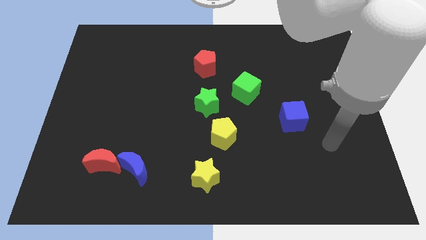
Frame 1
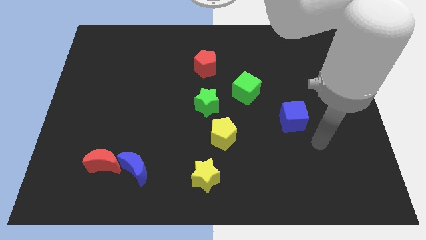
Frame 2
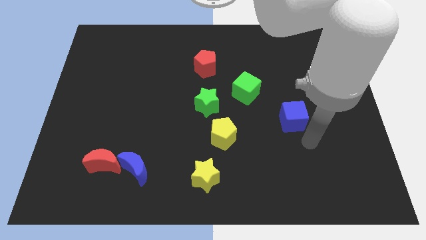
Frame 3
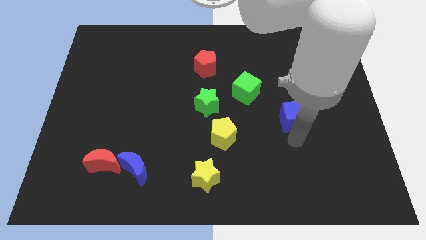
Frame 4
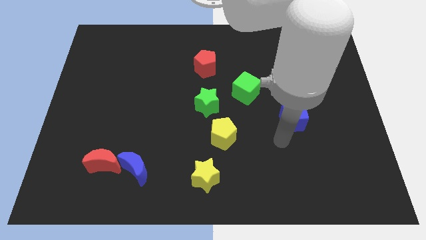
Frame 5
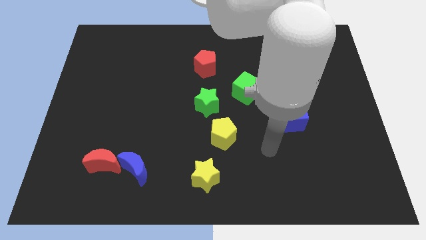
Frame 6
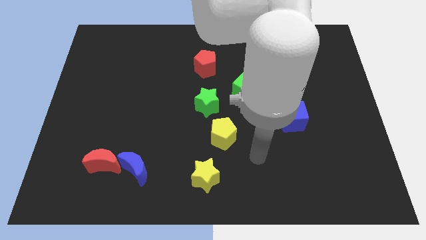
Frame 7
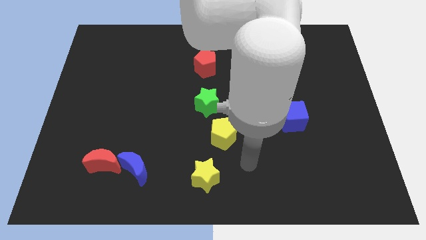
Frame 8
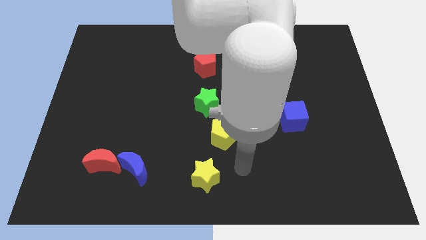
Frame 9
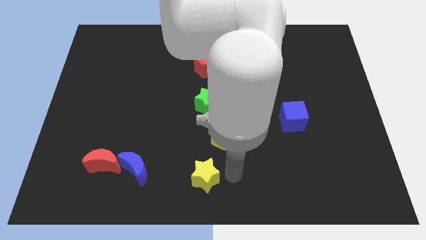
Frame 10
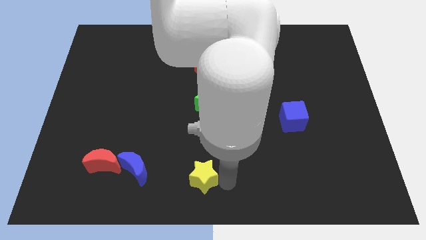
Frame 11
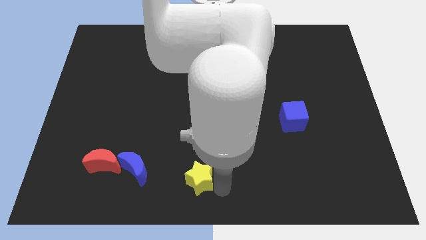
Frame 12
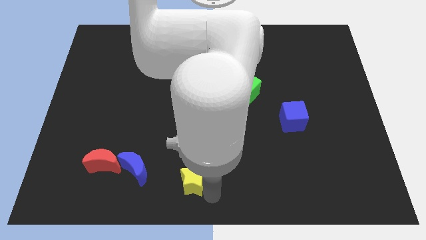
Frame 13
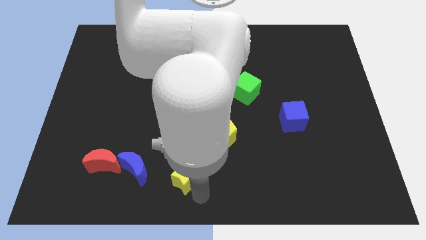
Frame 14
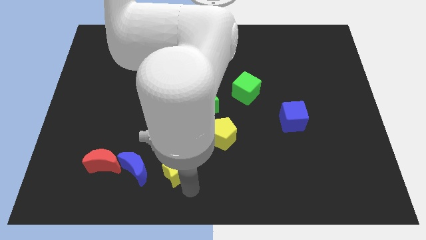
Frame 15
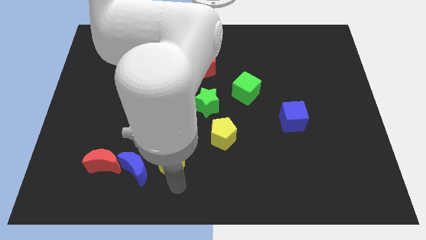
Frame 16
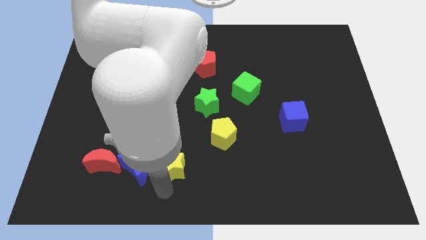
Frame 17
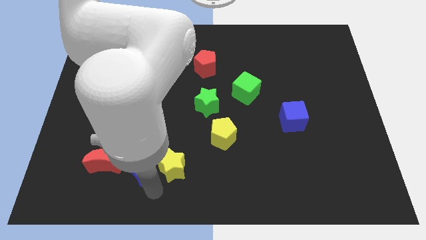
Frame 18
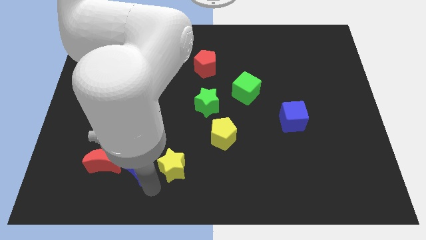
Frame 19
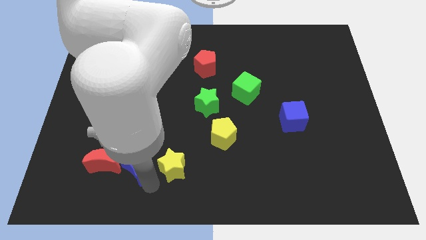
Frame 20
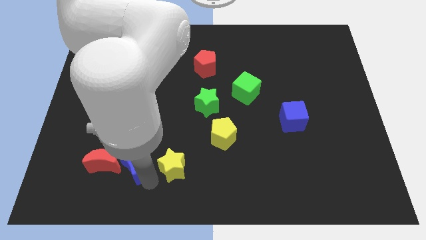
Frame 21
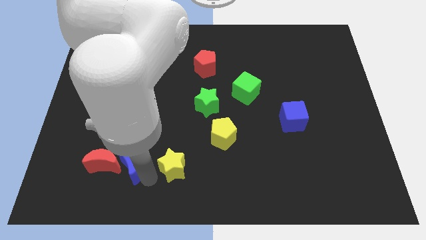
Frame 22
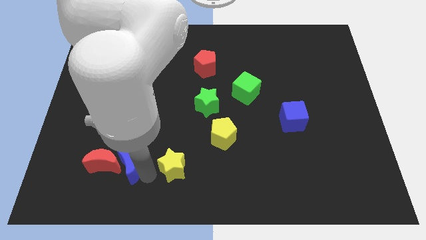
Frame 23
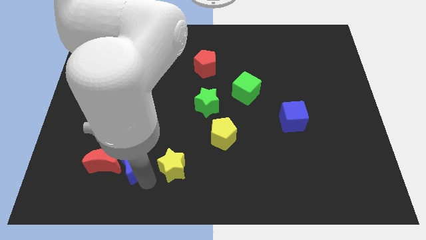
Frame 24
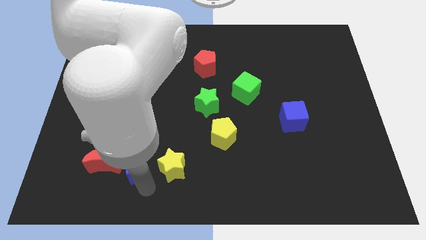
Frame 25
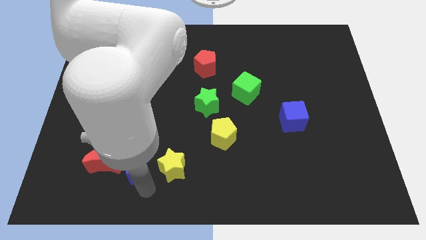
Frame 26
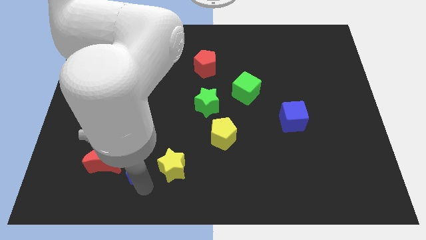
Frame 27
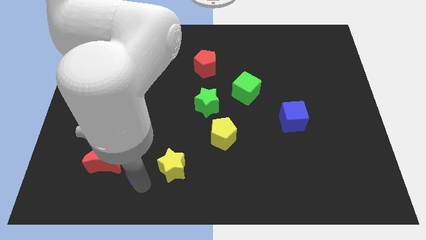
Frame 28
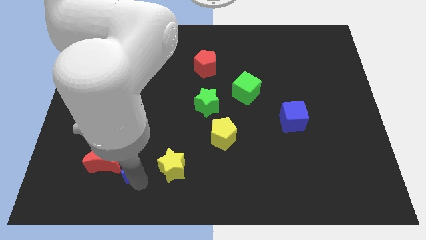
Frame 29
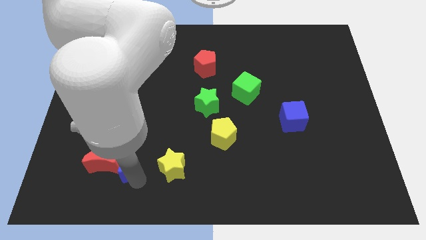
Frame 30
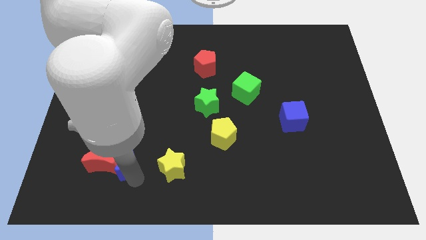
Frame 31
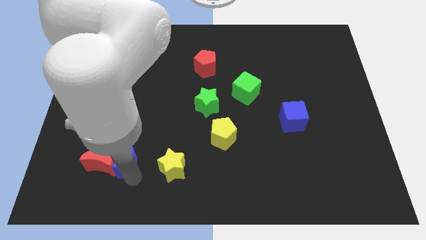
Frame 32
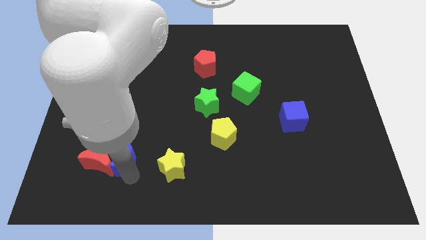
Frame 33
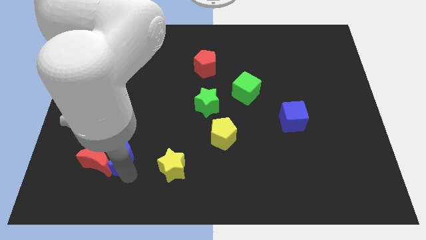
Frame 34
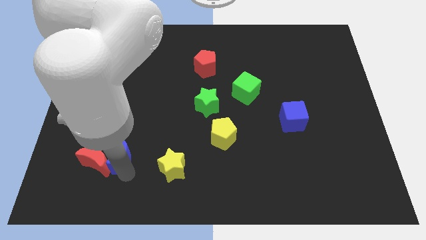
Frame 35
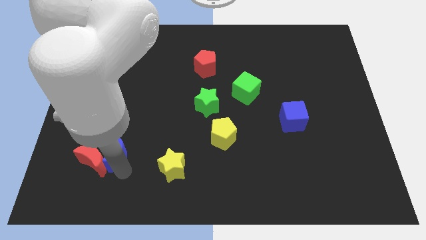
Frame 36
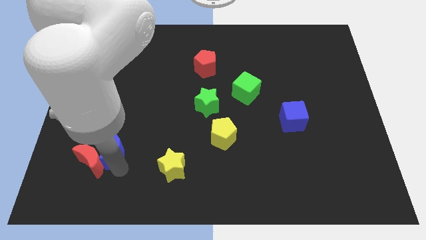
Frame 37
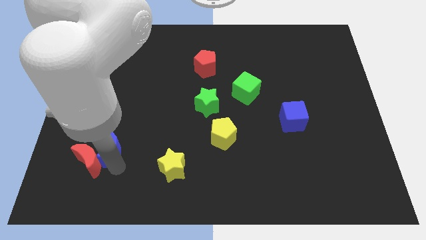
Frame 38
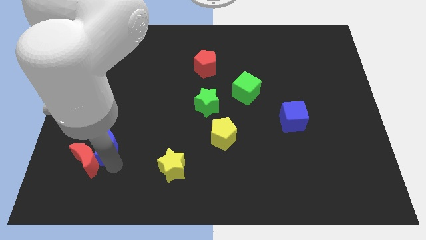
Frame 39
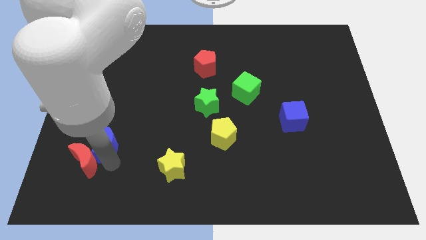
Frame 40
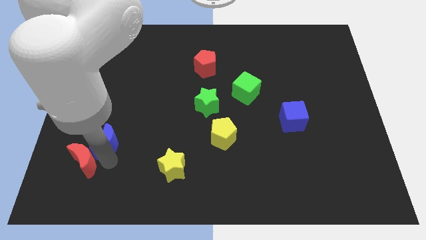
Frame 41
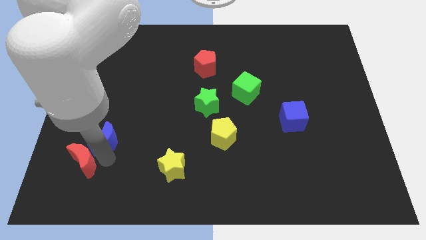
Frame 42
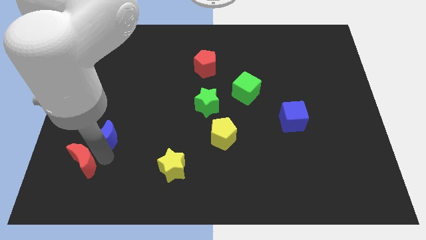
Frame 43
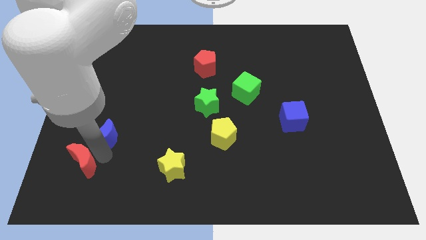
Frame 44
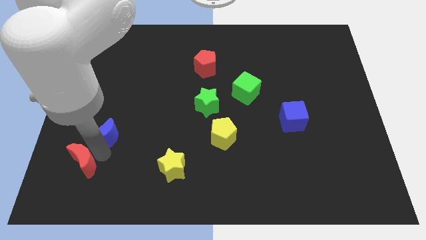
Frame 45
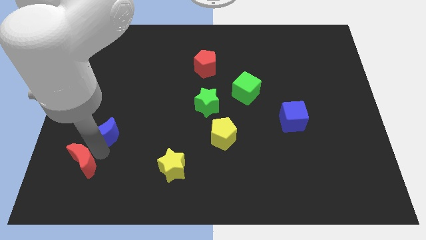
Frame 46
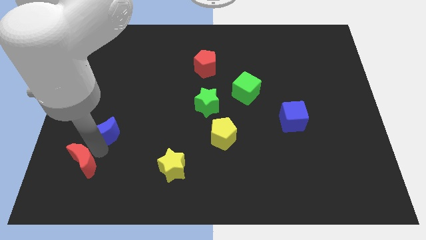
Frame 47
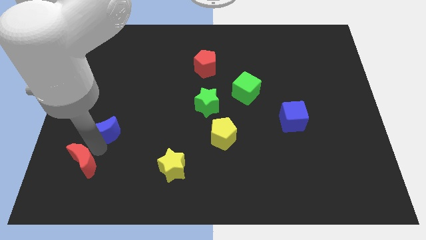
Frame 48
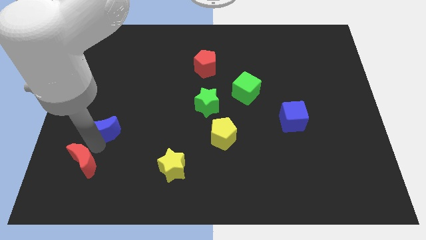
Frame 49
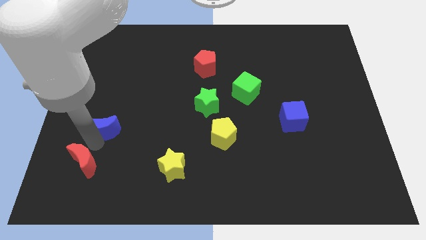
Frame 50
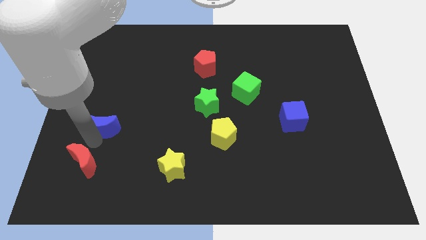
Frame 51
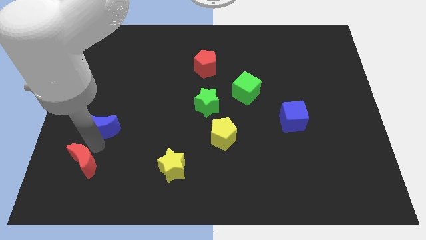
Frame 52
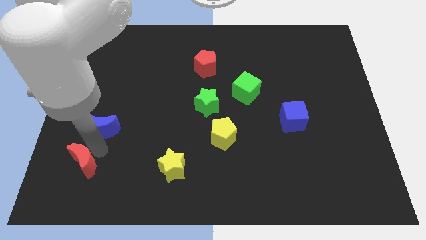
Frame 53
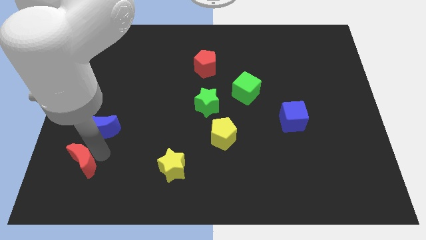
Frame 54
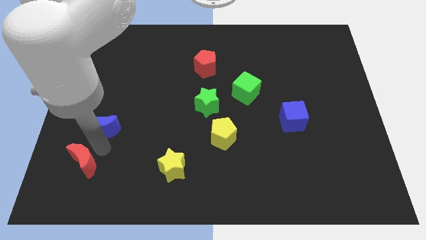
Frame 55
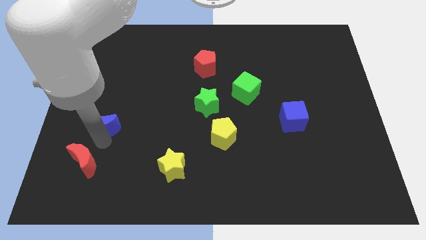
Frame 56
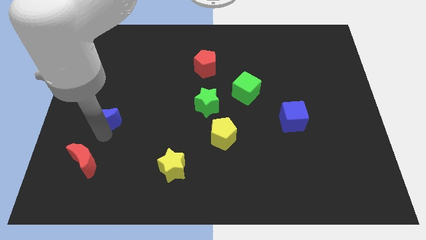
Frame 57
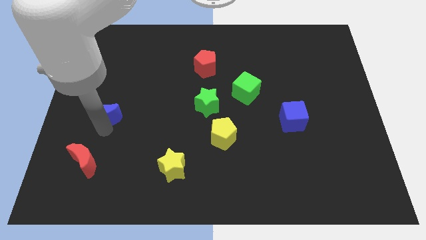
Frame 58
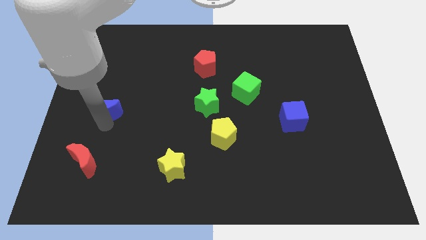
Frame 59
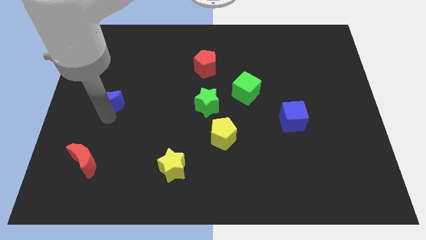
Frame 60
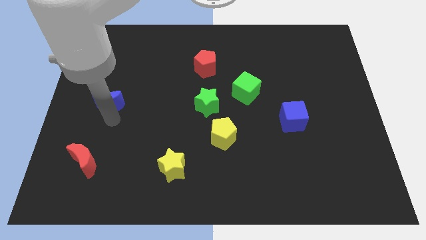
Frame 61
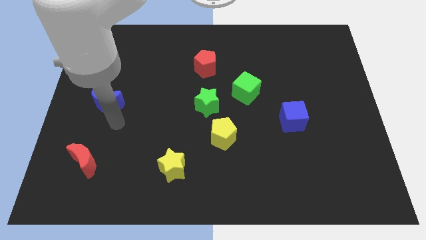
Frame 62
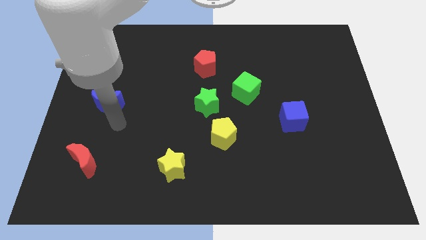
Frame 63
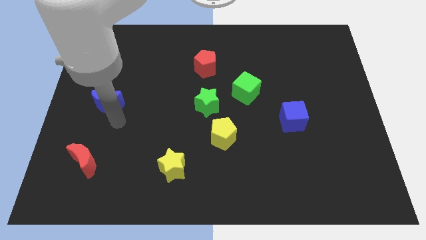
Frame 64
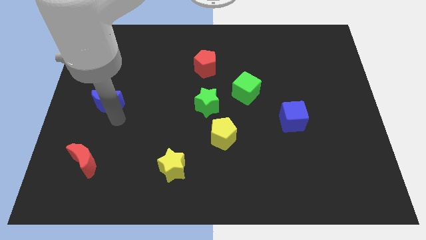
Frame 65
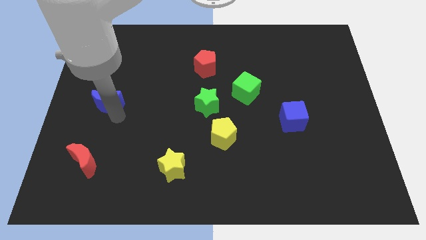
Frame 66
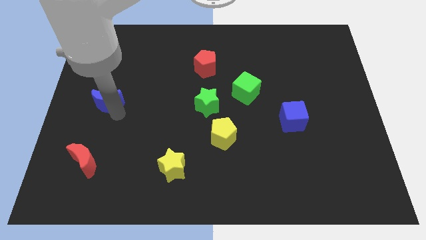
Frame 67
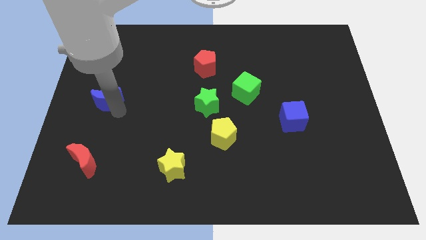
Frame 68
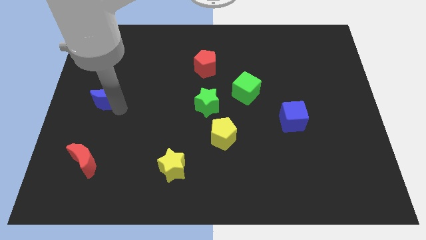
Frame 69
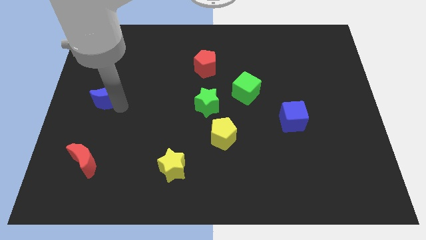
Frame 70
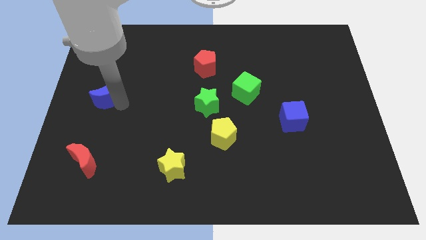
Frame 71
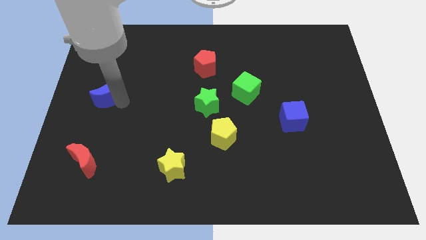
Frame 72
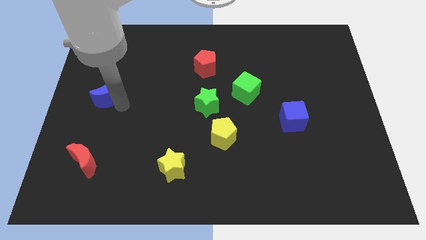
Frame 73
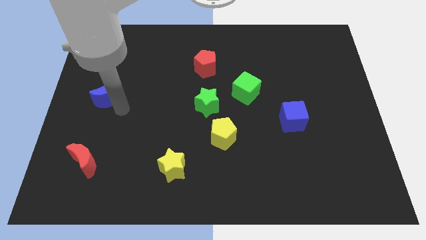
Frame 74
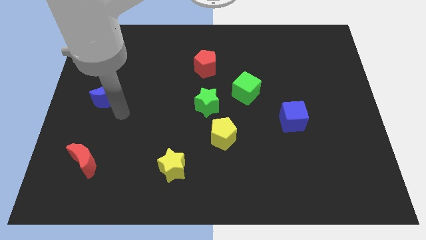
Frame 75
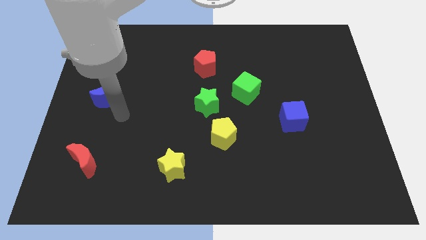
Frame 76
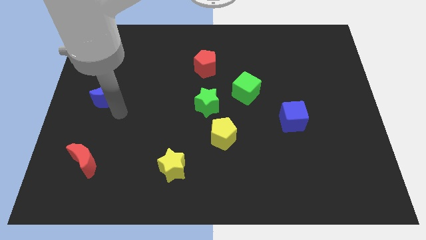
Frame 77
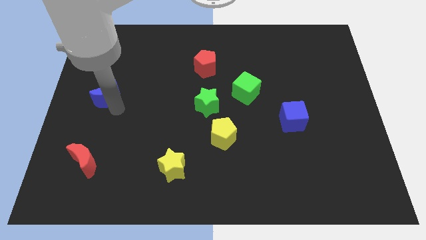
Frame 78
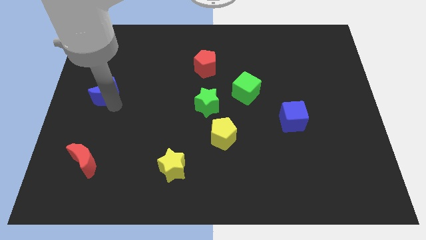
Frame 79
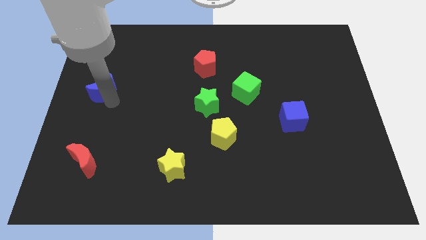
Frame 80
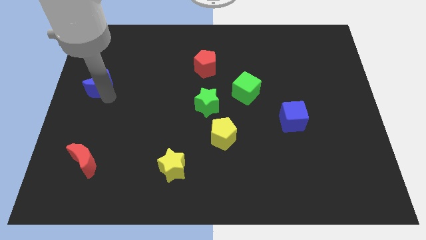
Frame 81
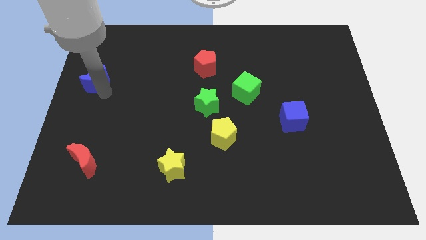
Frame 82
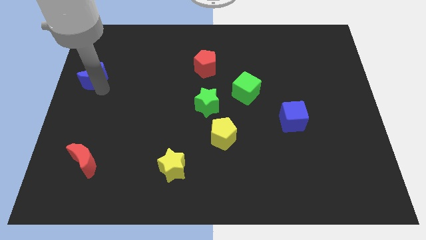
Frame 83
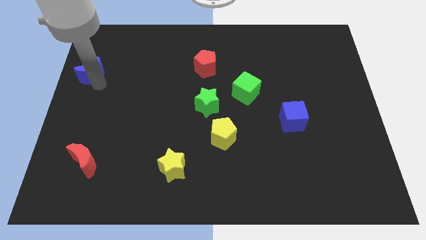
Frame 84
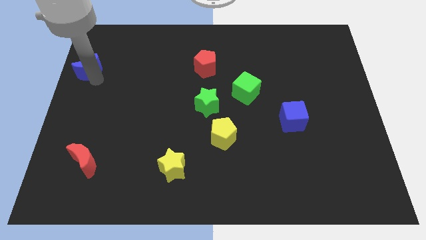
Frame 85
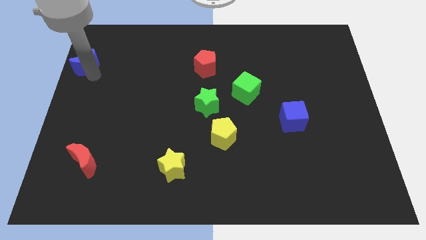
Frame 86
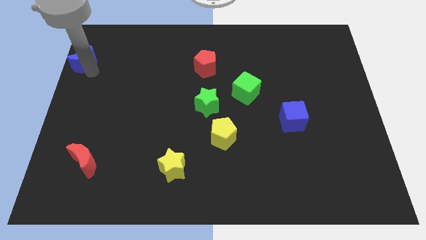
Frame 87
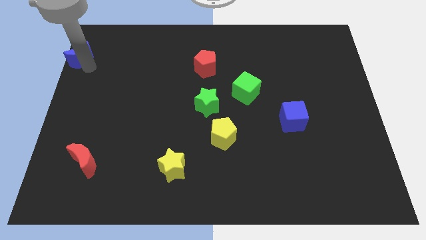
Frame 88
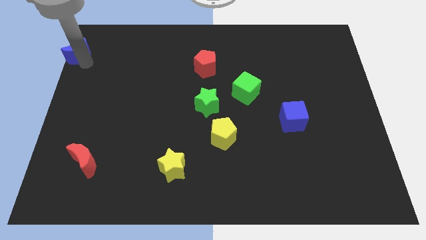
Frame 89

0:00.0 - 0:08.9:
put the blue moon to the top left
